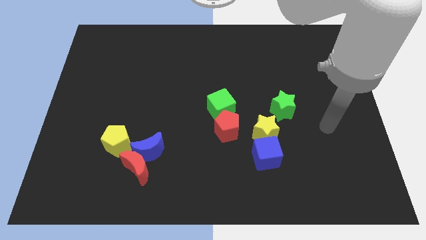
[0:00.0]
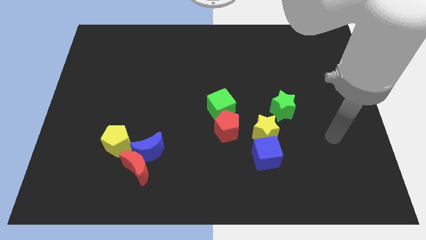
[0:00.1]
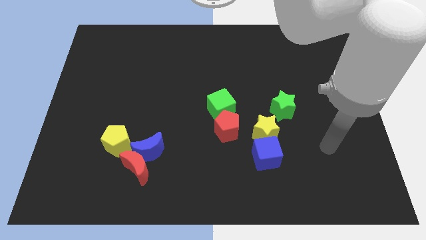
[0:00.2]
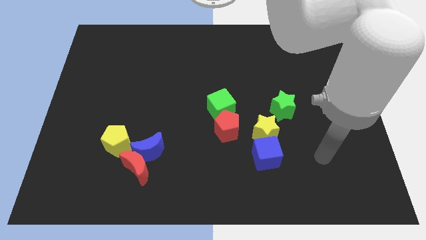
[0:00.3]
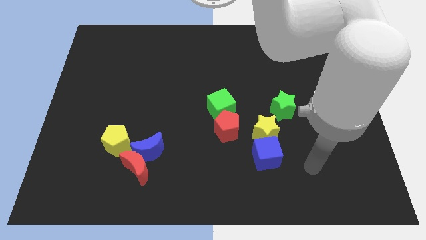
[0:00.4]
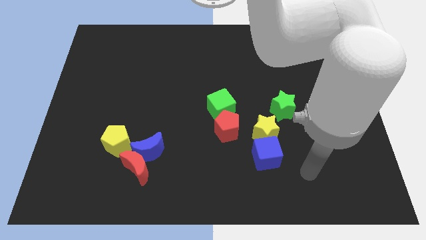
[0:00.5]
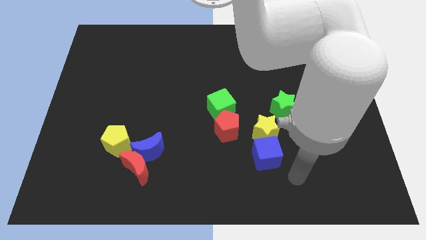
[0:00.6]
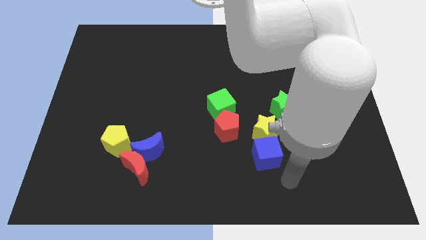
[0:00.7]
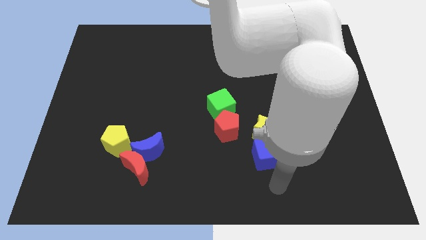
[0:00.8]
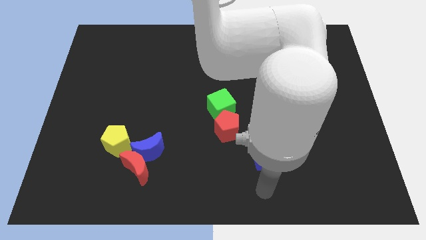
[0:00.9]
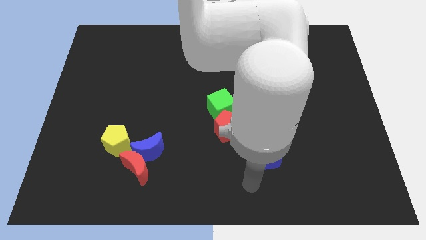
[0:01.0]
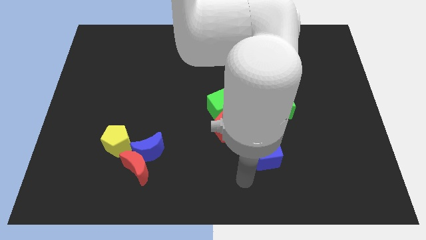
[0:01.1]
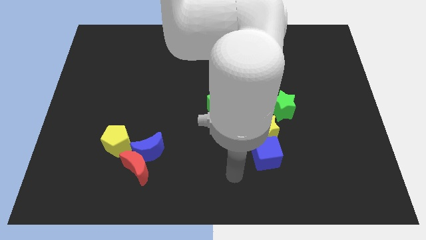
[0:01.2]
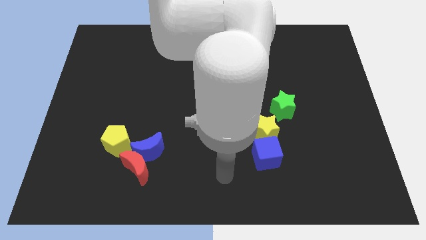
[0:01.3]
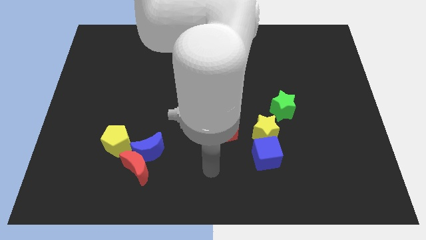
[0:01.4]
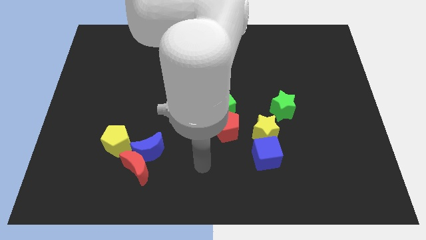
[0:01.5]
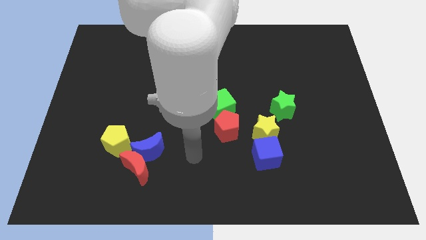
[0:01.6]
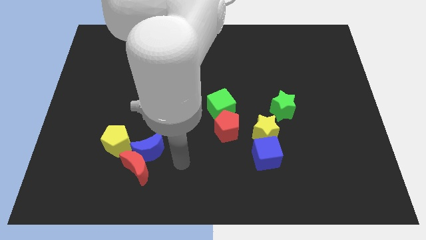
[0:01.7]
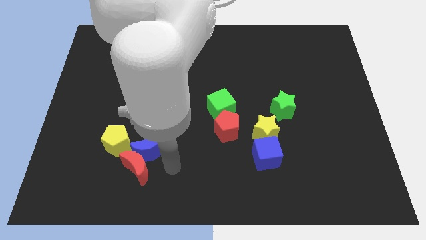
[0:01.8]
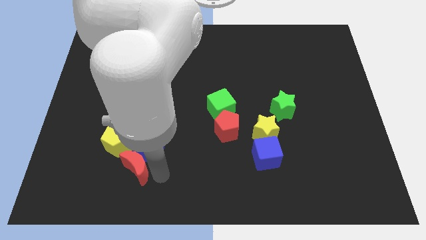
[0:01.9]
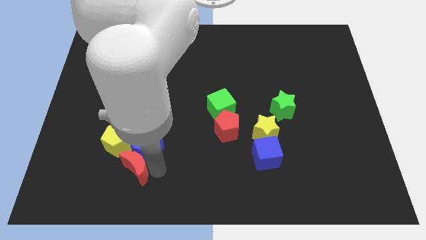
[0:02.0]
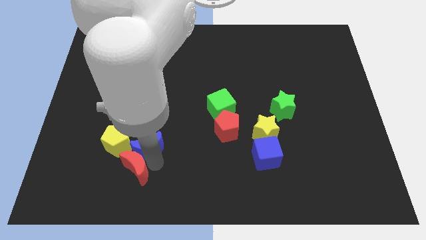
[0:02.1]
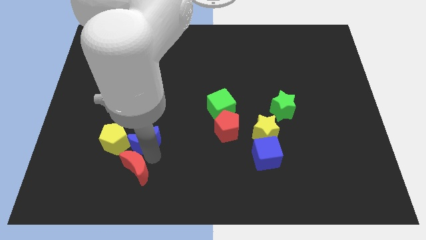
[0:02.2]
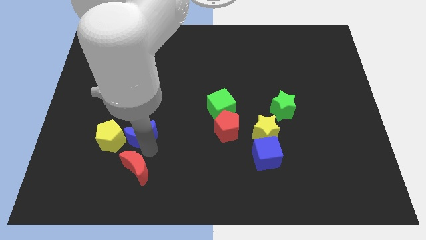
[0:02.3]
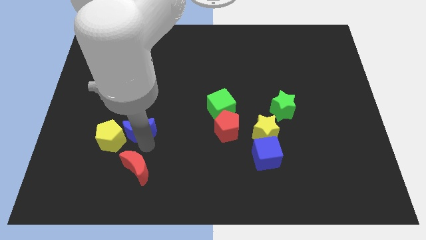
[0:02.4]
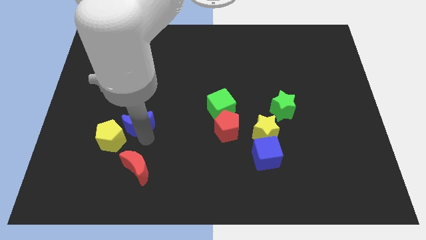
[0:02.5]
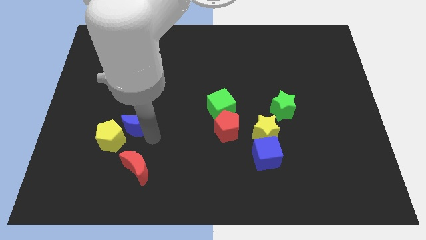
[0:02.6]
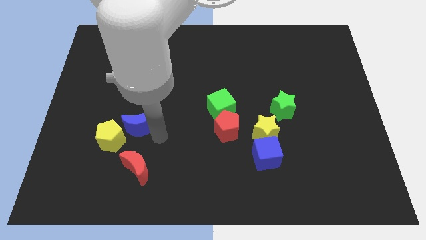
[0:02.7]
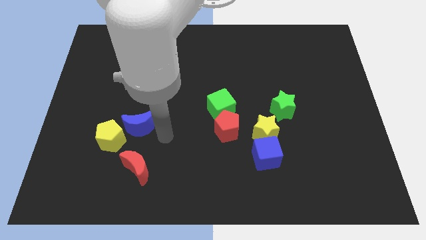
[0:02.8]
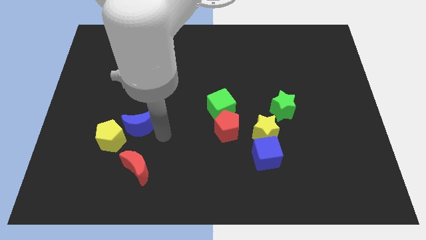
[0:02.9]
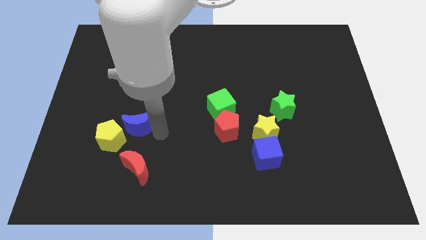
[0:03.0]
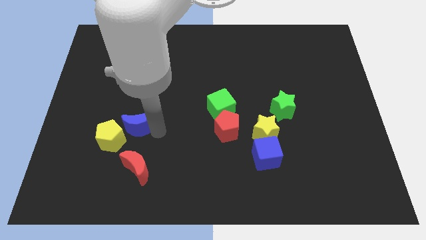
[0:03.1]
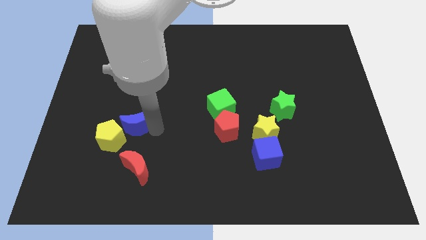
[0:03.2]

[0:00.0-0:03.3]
slide the blue moon upwards and to the left diagonally a little bit

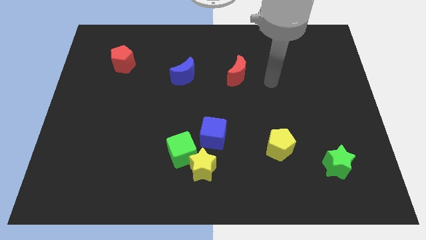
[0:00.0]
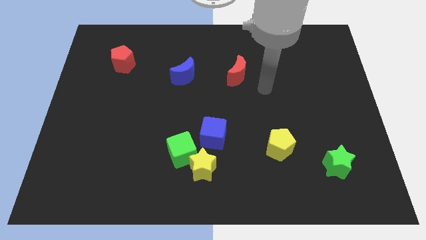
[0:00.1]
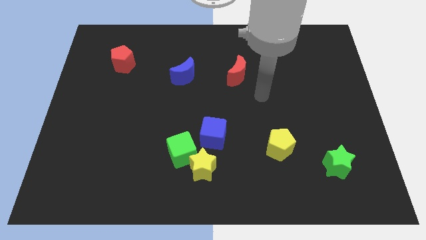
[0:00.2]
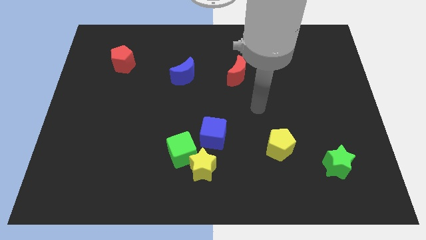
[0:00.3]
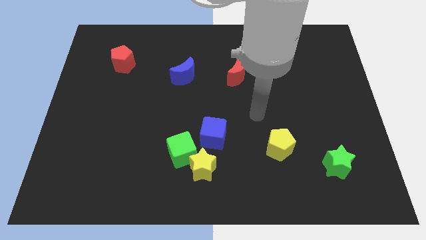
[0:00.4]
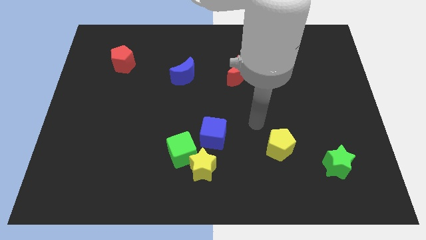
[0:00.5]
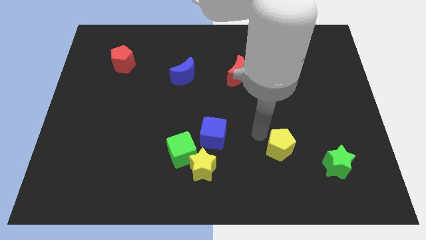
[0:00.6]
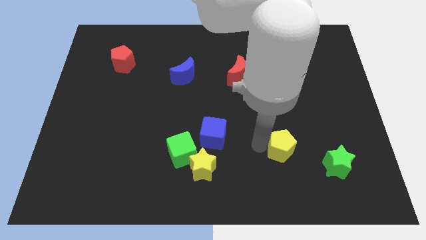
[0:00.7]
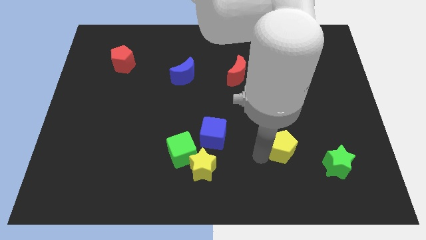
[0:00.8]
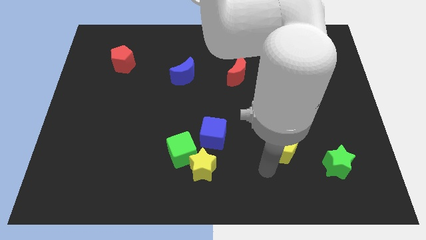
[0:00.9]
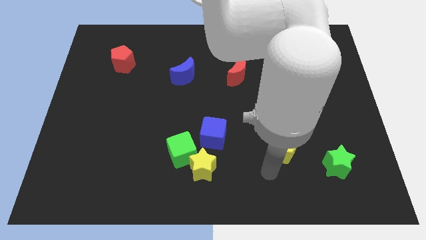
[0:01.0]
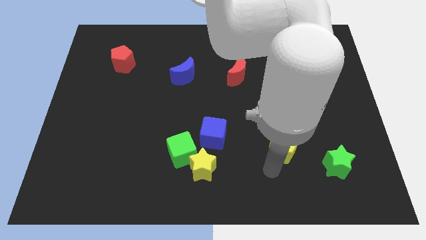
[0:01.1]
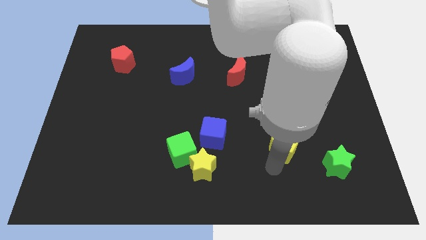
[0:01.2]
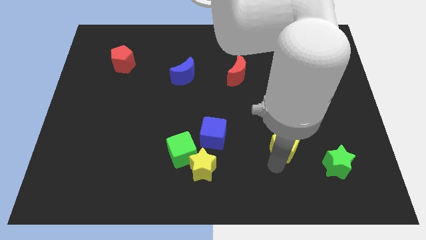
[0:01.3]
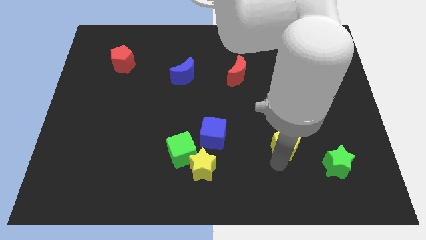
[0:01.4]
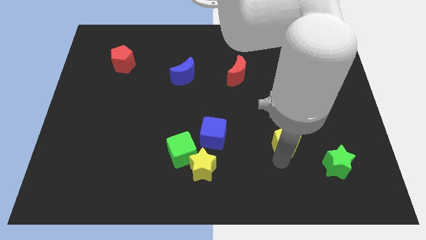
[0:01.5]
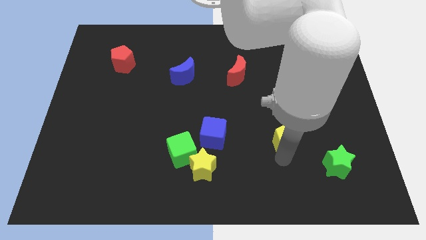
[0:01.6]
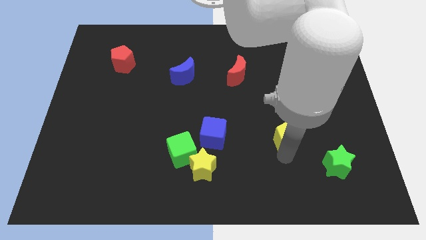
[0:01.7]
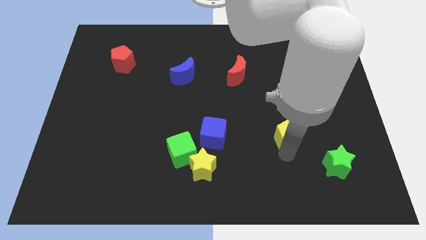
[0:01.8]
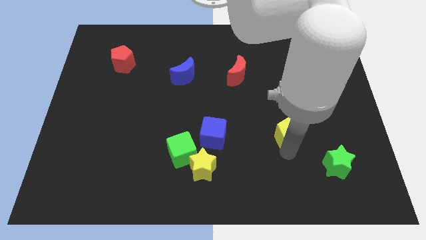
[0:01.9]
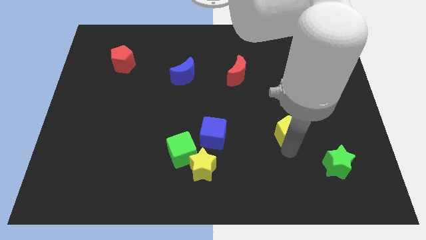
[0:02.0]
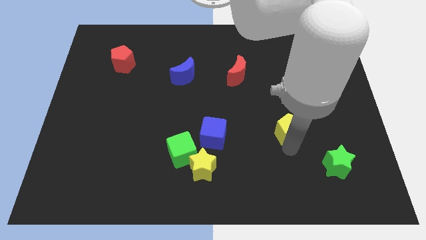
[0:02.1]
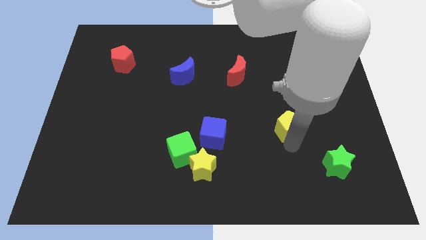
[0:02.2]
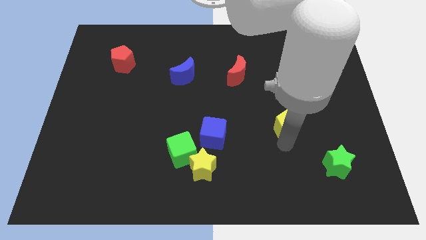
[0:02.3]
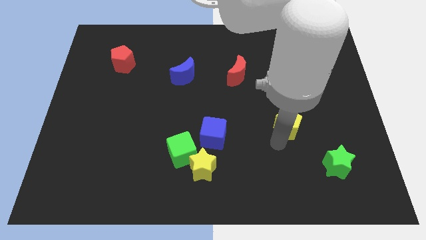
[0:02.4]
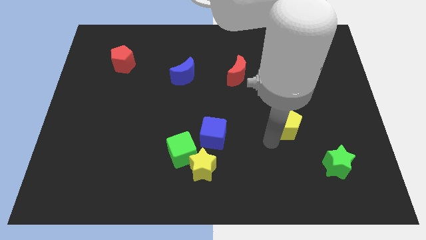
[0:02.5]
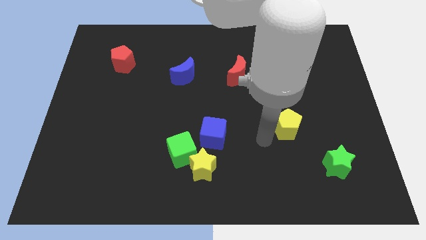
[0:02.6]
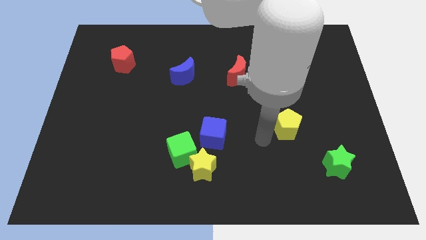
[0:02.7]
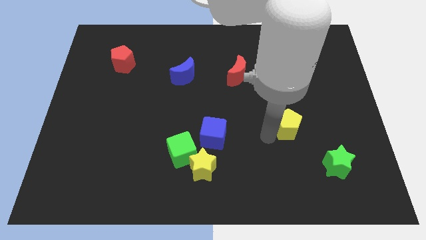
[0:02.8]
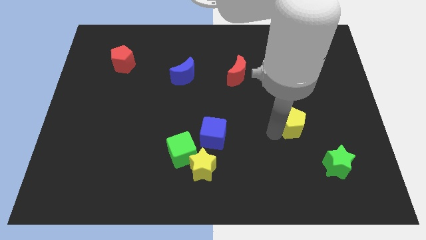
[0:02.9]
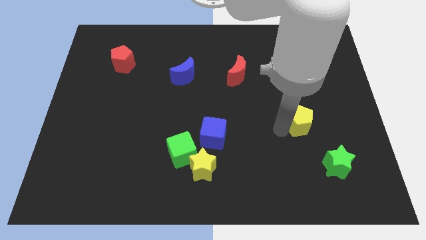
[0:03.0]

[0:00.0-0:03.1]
move the yellow pentagon a little upwards and right

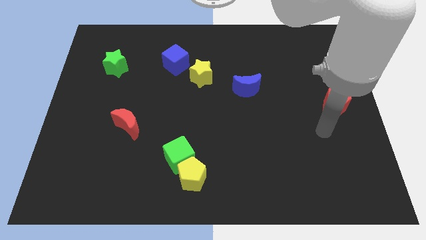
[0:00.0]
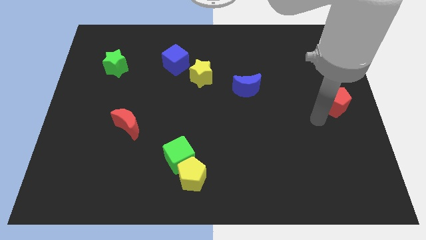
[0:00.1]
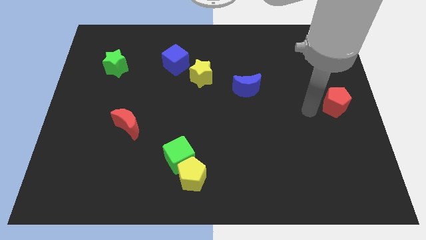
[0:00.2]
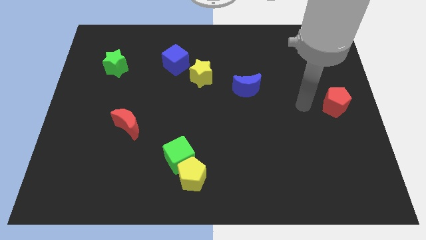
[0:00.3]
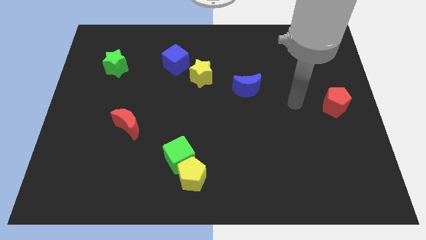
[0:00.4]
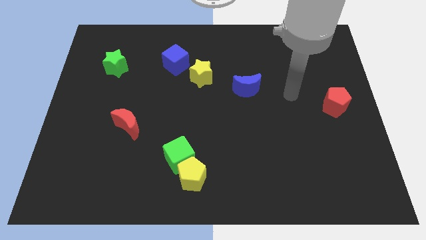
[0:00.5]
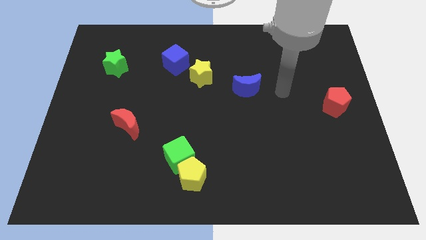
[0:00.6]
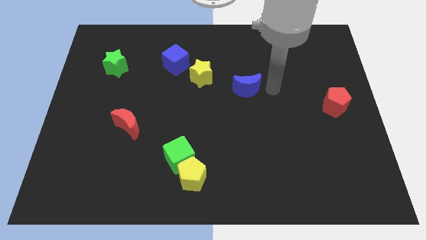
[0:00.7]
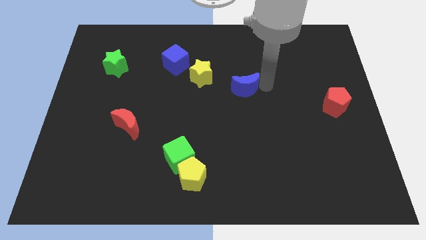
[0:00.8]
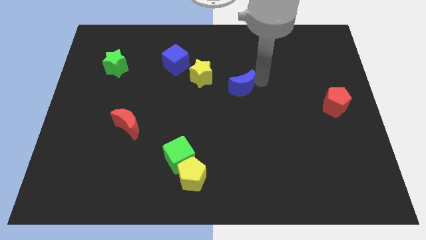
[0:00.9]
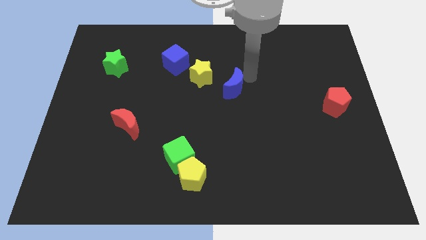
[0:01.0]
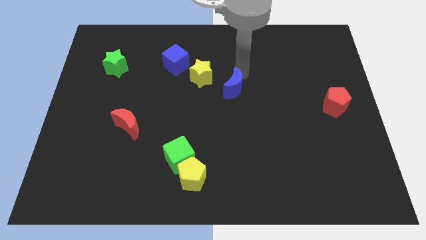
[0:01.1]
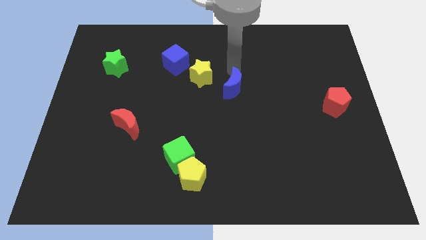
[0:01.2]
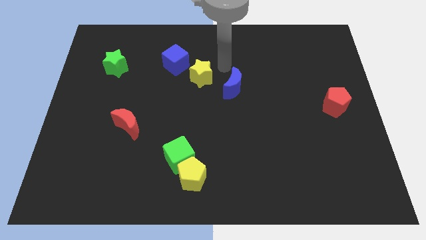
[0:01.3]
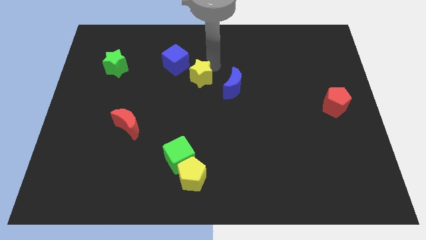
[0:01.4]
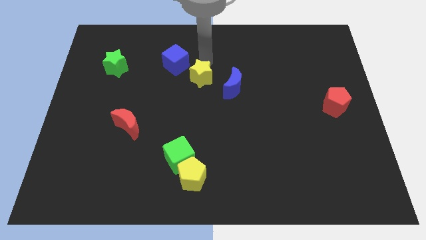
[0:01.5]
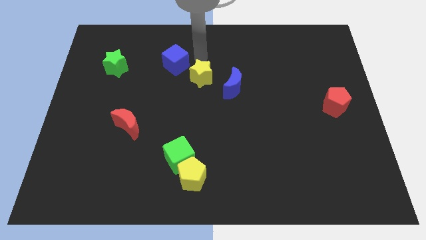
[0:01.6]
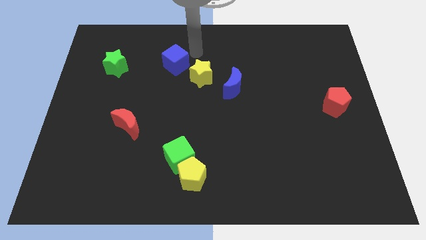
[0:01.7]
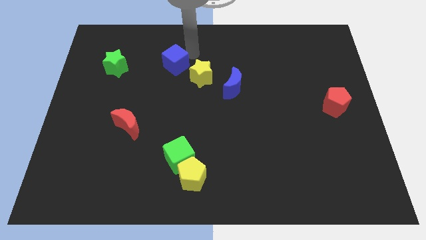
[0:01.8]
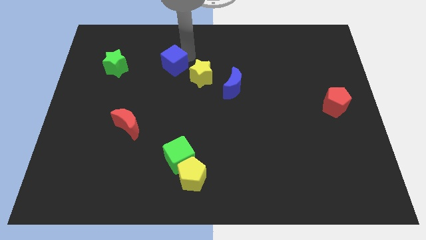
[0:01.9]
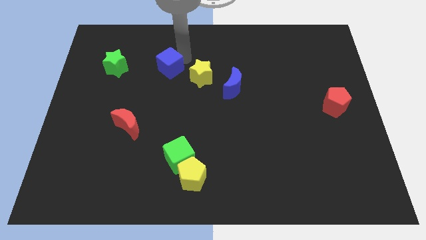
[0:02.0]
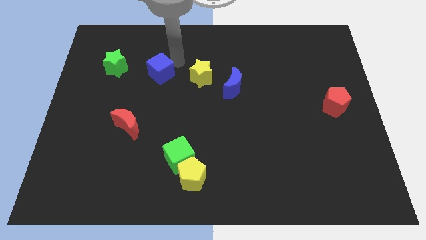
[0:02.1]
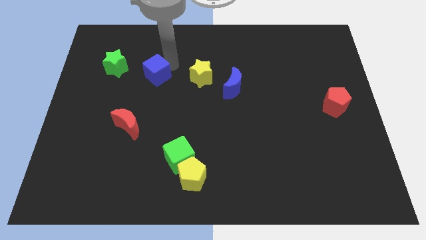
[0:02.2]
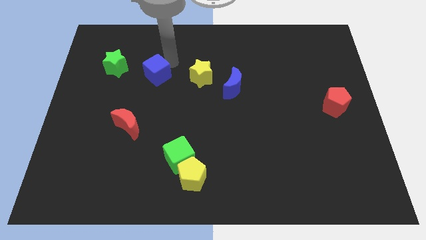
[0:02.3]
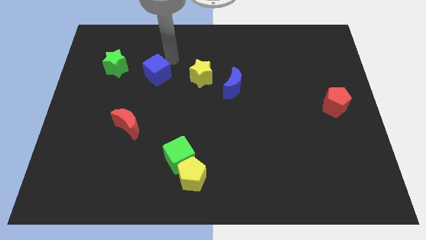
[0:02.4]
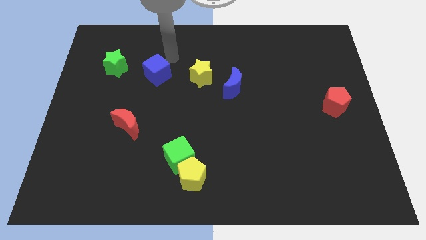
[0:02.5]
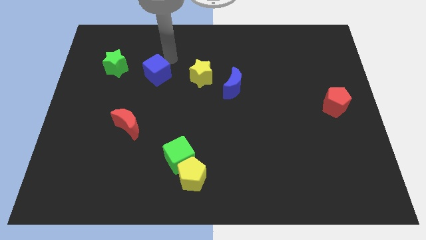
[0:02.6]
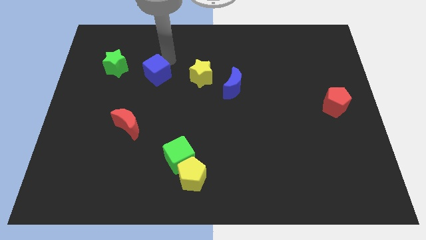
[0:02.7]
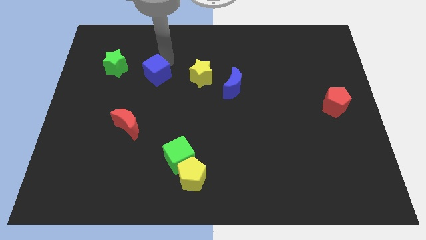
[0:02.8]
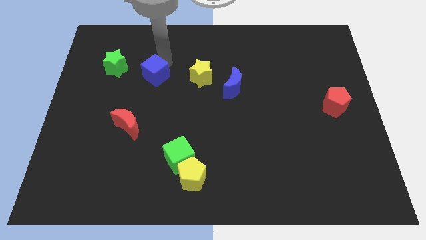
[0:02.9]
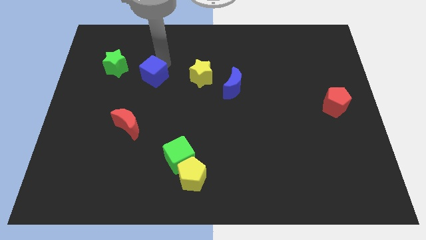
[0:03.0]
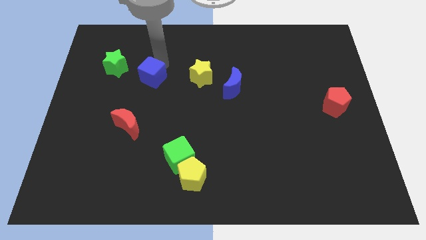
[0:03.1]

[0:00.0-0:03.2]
push the blue cube down and to the left diagonally a little bit
